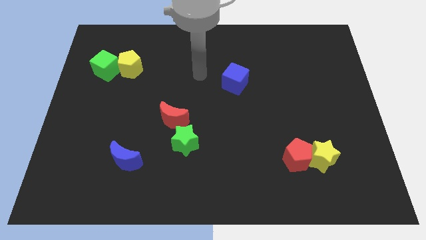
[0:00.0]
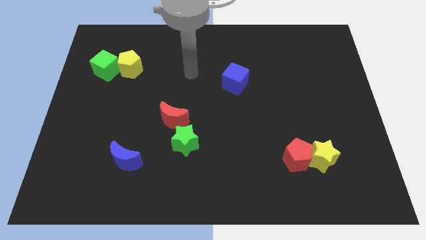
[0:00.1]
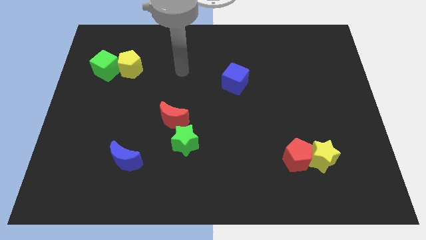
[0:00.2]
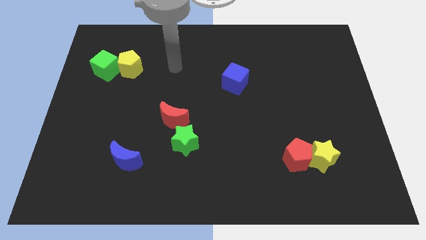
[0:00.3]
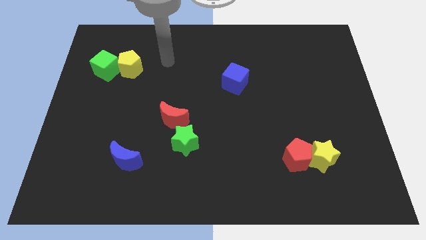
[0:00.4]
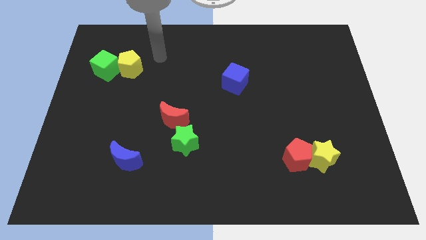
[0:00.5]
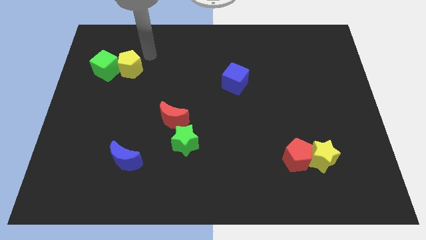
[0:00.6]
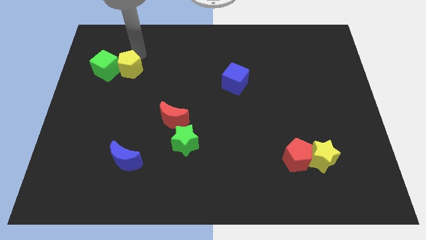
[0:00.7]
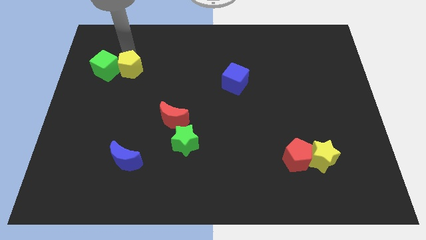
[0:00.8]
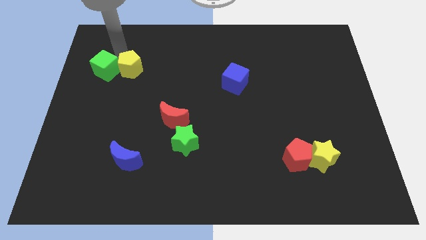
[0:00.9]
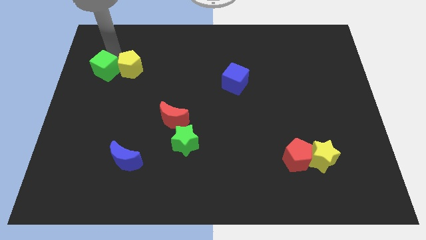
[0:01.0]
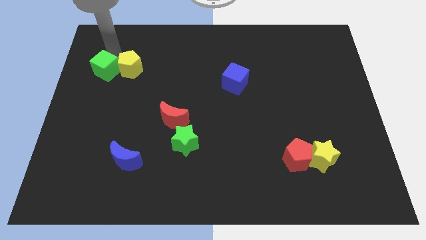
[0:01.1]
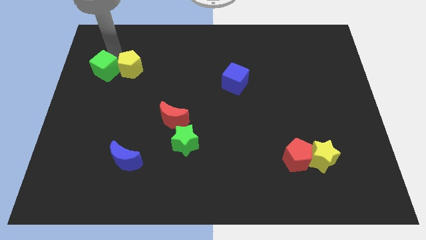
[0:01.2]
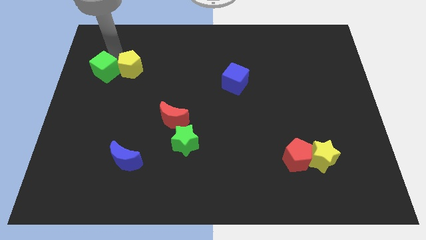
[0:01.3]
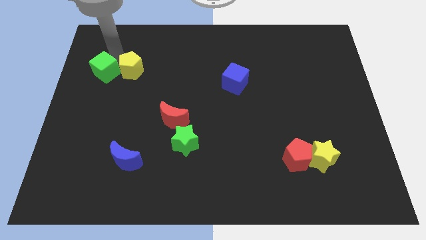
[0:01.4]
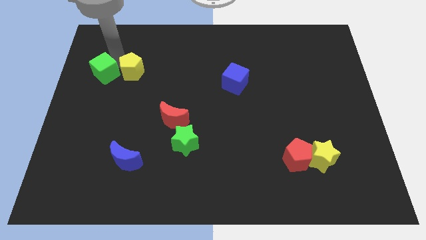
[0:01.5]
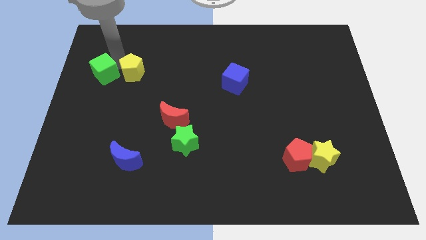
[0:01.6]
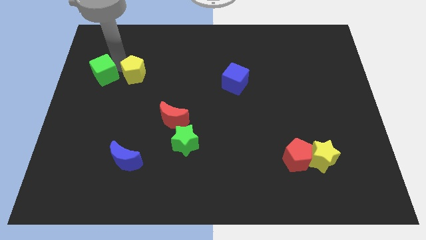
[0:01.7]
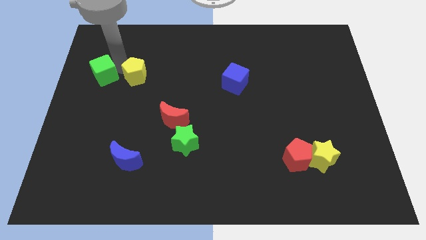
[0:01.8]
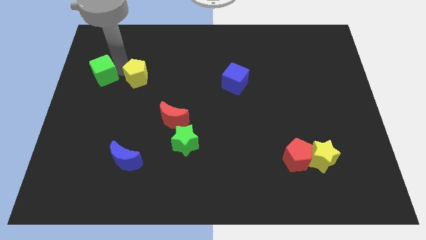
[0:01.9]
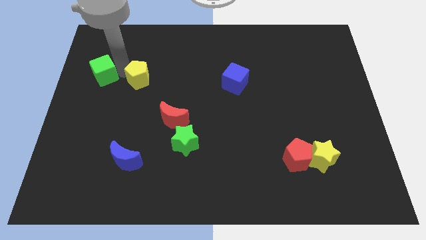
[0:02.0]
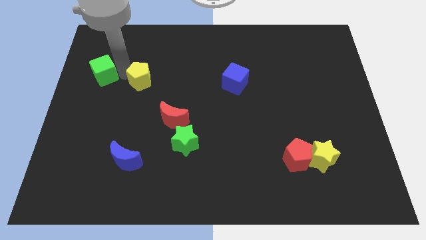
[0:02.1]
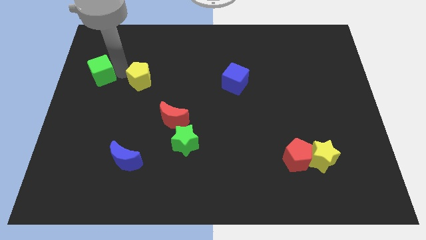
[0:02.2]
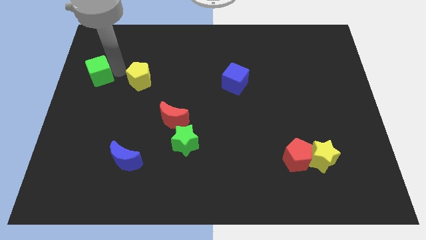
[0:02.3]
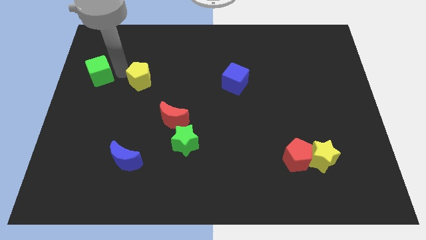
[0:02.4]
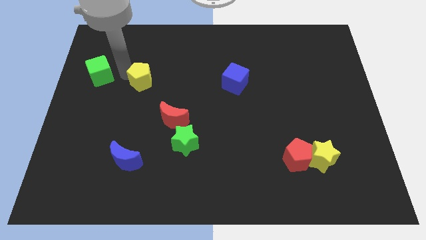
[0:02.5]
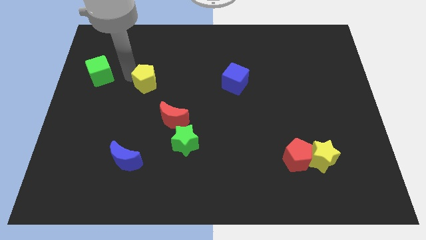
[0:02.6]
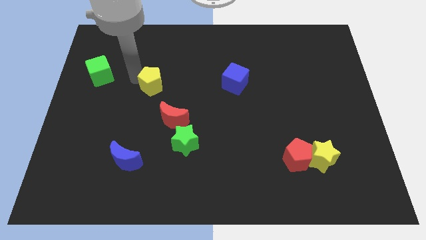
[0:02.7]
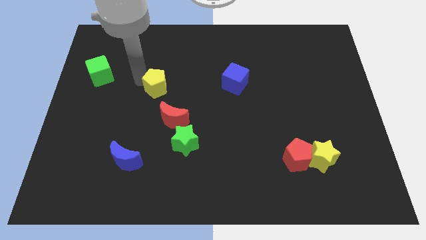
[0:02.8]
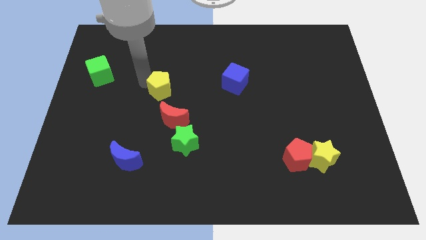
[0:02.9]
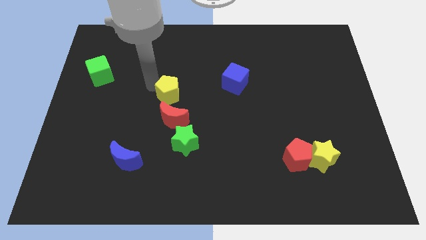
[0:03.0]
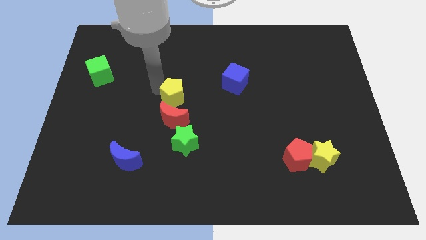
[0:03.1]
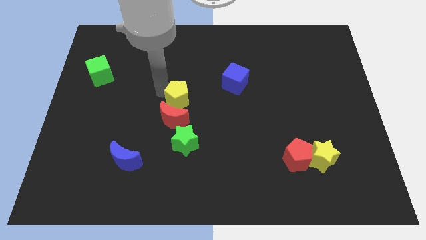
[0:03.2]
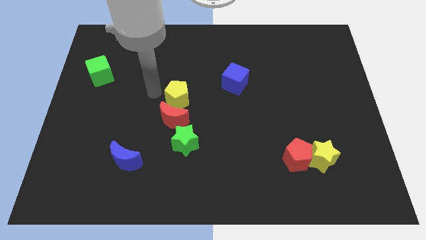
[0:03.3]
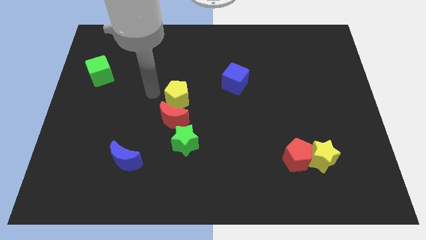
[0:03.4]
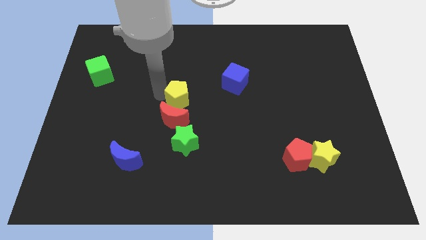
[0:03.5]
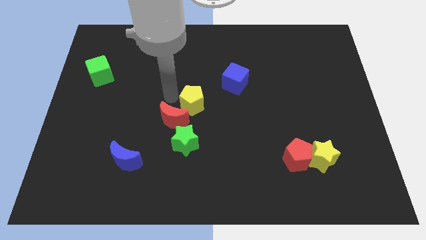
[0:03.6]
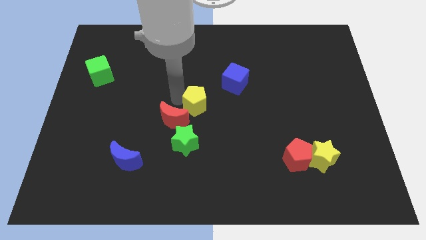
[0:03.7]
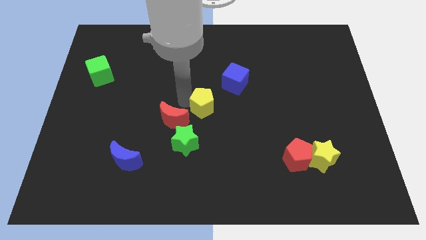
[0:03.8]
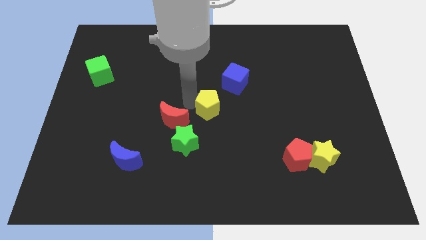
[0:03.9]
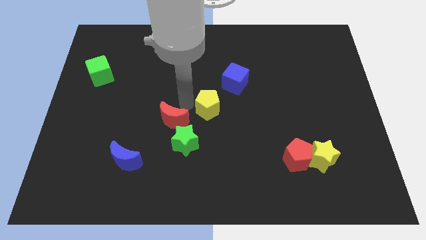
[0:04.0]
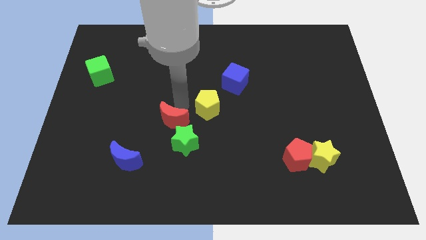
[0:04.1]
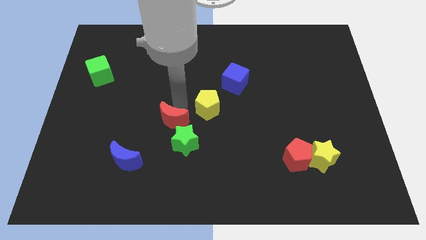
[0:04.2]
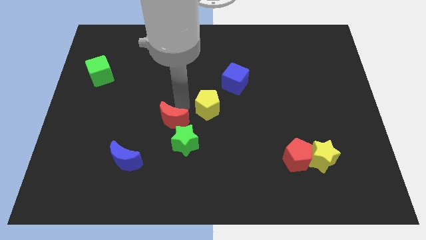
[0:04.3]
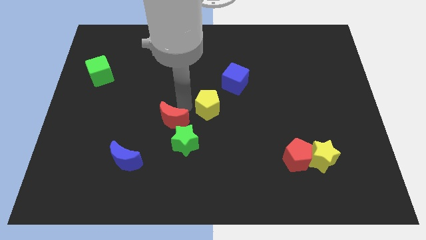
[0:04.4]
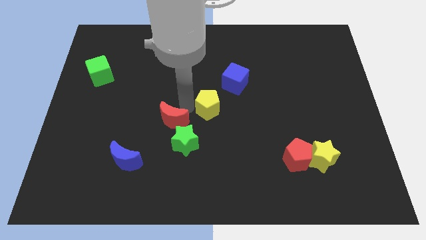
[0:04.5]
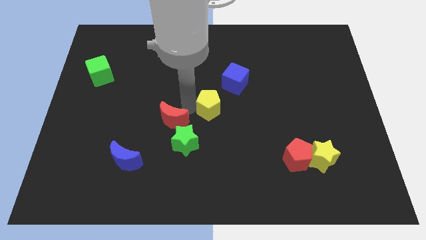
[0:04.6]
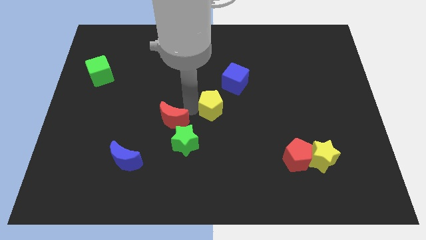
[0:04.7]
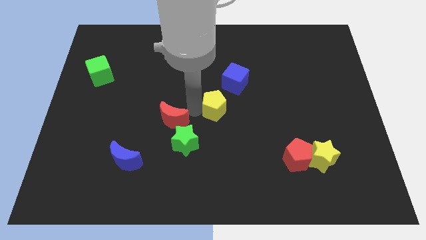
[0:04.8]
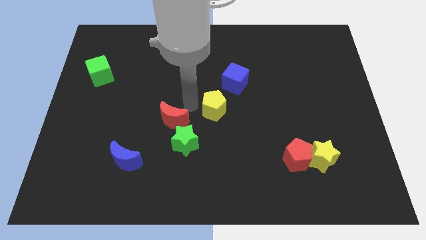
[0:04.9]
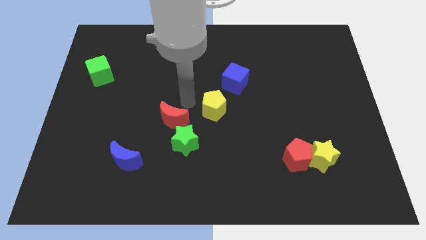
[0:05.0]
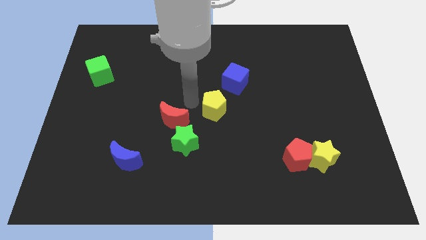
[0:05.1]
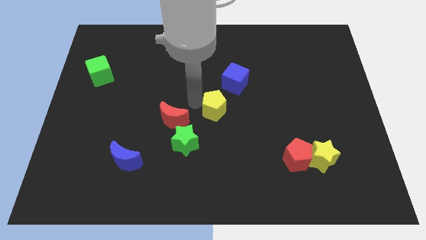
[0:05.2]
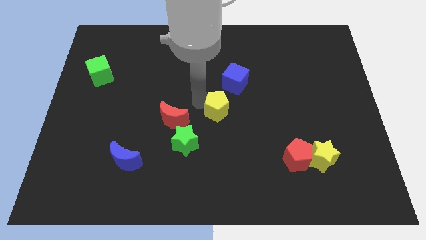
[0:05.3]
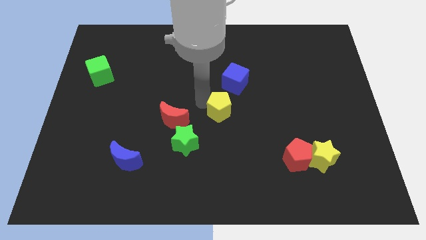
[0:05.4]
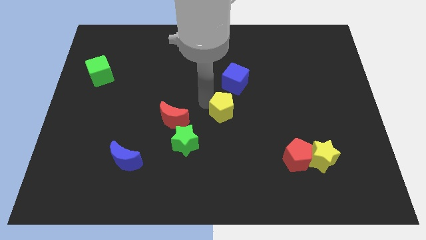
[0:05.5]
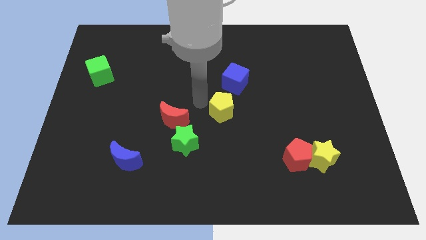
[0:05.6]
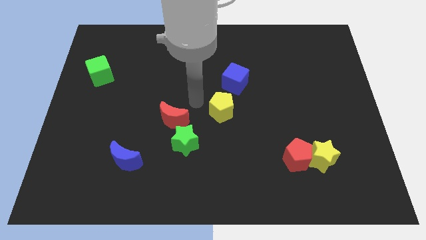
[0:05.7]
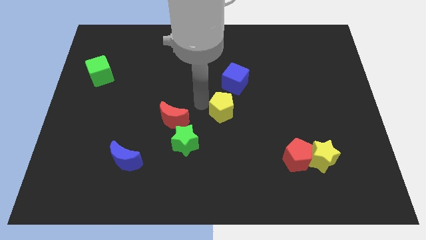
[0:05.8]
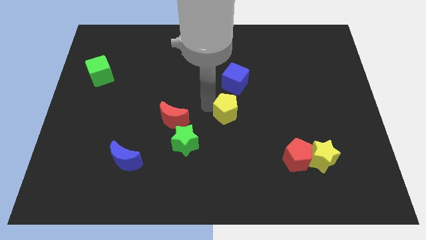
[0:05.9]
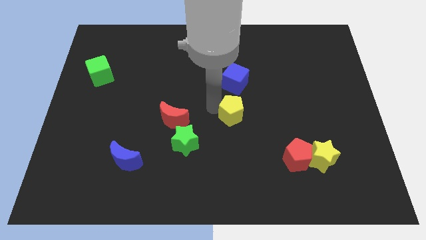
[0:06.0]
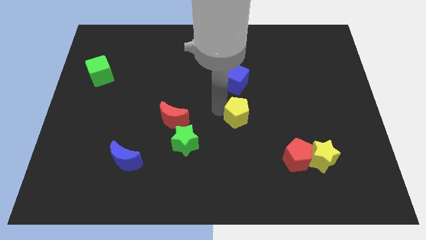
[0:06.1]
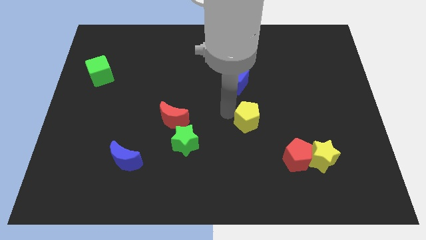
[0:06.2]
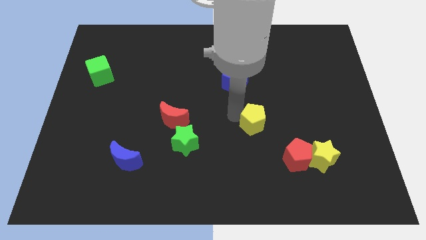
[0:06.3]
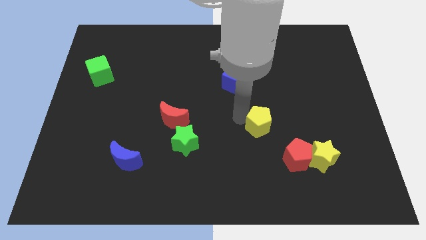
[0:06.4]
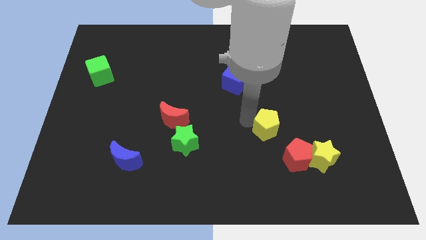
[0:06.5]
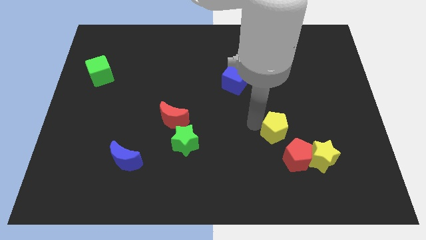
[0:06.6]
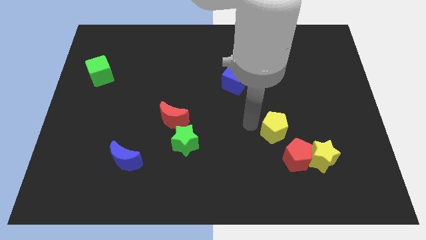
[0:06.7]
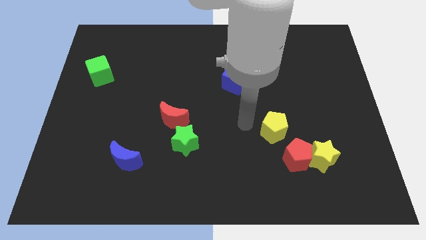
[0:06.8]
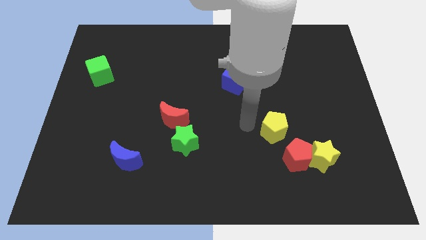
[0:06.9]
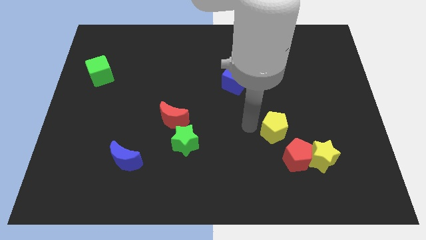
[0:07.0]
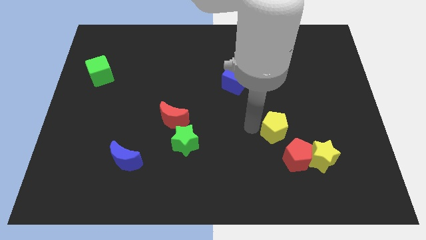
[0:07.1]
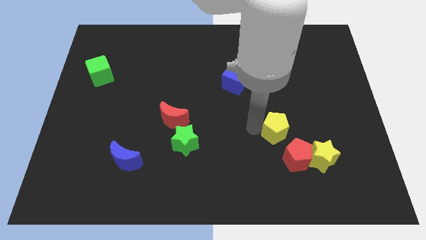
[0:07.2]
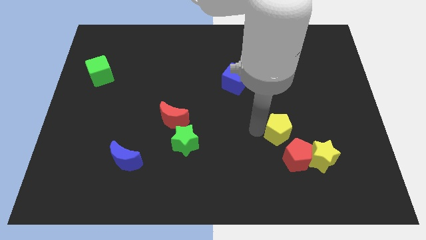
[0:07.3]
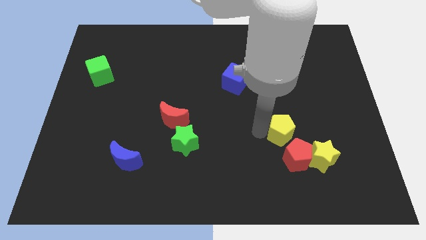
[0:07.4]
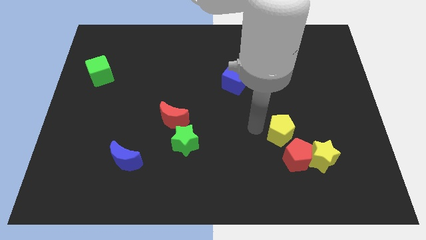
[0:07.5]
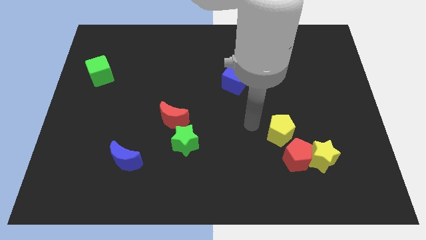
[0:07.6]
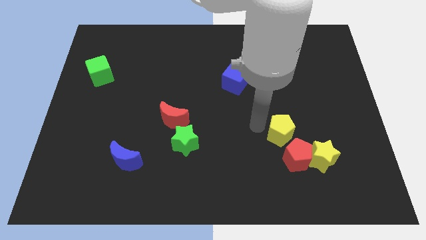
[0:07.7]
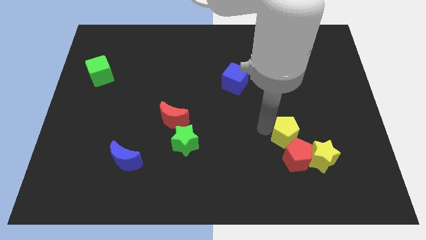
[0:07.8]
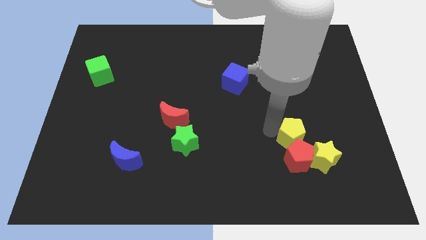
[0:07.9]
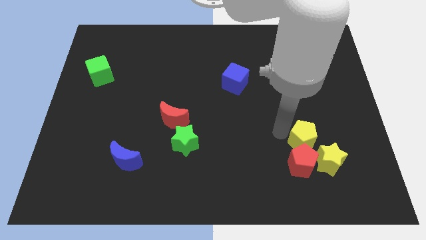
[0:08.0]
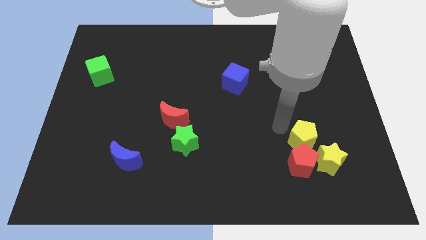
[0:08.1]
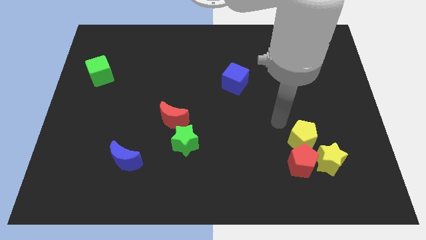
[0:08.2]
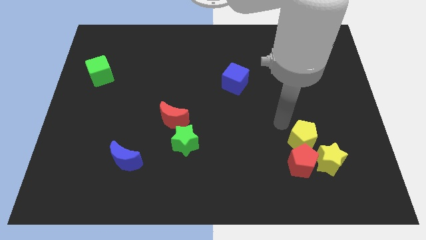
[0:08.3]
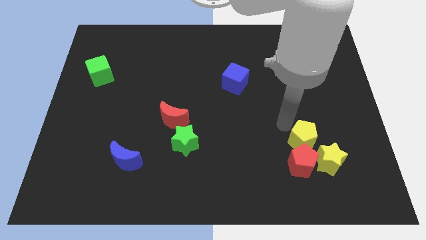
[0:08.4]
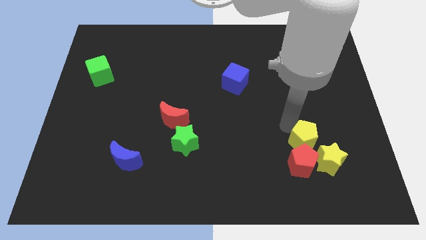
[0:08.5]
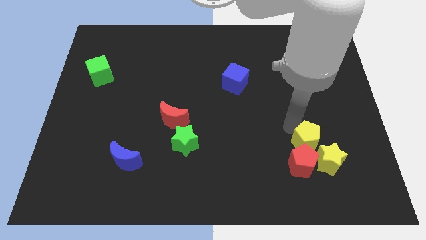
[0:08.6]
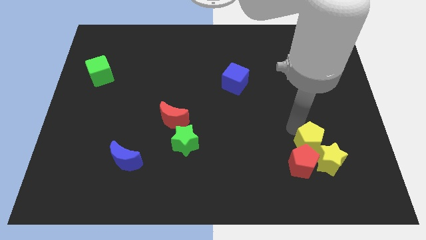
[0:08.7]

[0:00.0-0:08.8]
move the yellow pentagon next to the yellow star
